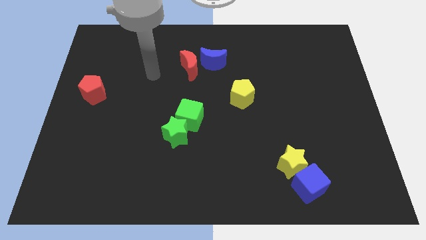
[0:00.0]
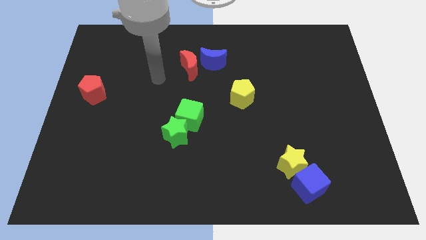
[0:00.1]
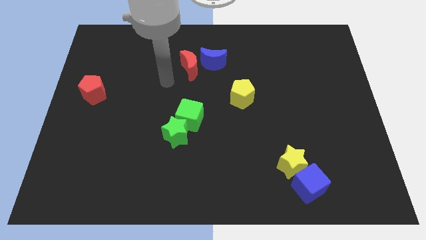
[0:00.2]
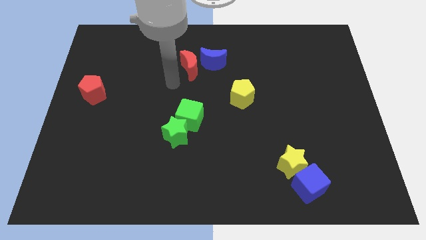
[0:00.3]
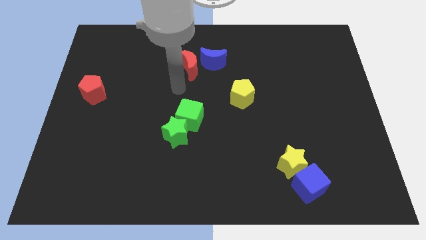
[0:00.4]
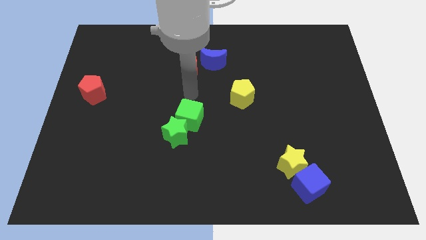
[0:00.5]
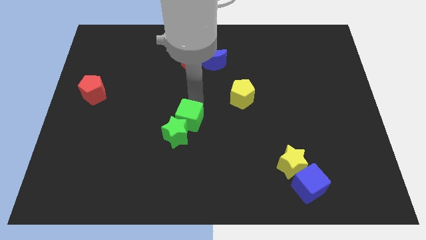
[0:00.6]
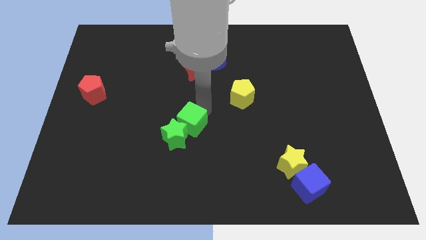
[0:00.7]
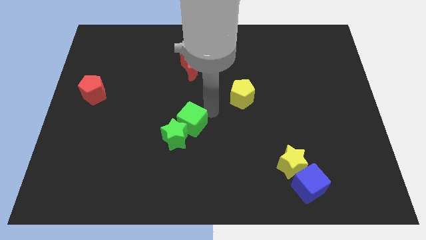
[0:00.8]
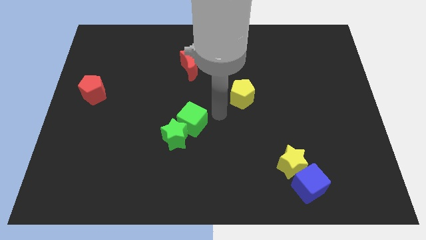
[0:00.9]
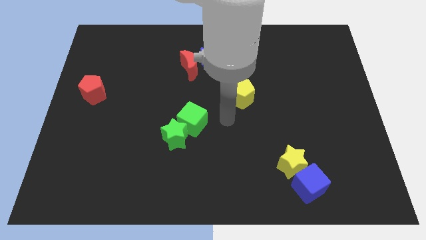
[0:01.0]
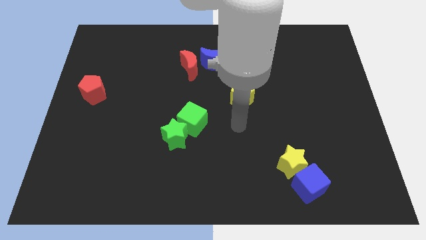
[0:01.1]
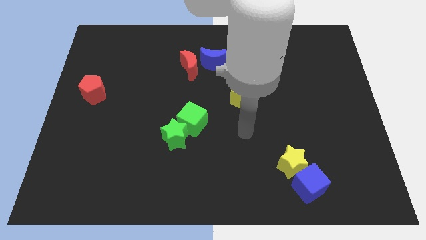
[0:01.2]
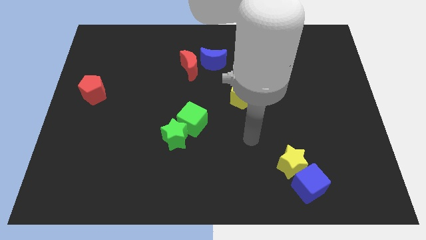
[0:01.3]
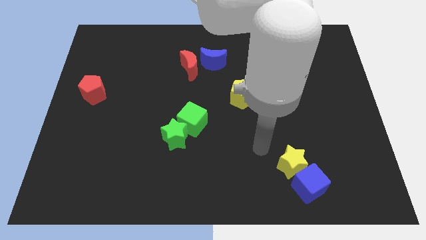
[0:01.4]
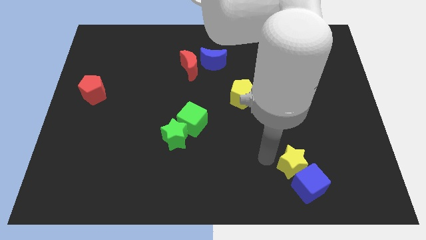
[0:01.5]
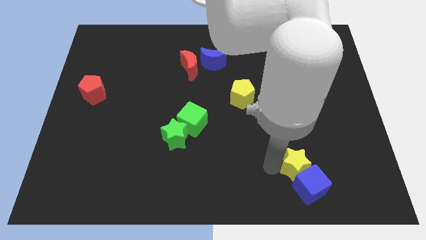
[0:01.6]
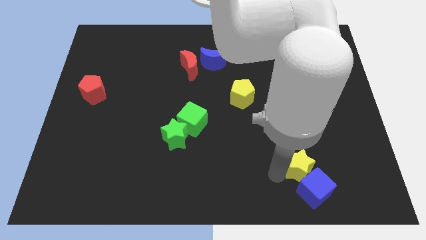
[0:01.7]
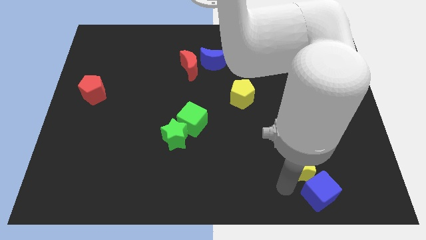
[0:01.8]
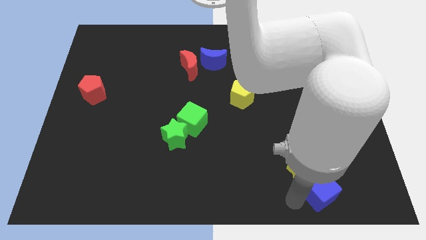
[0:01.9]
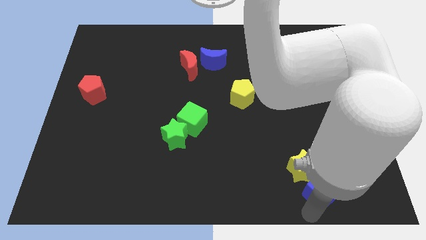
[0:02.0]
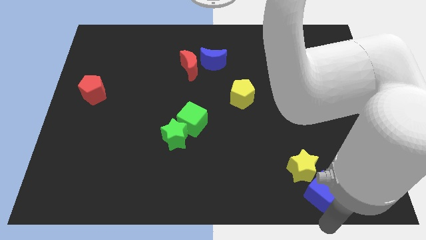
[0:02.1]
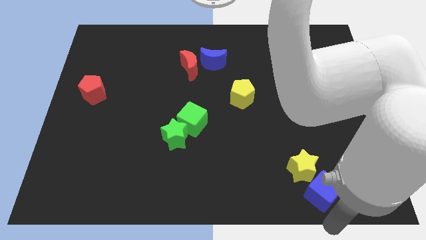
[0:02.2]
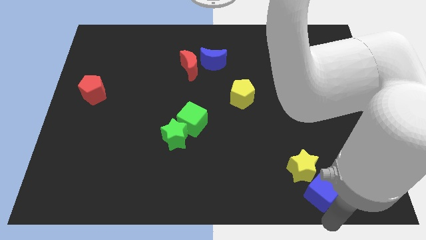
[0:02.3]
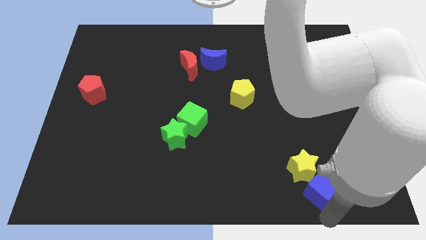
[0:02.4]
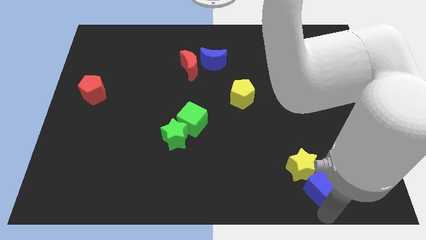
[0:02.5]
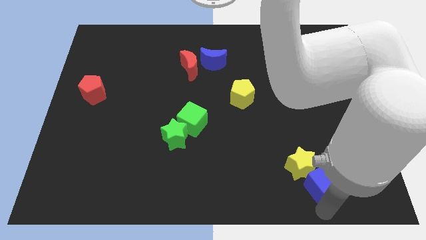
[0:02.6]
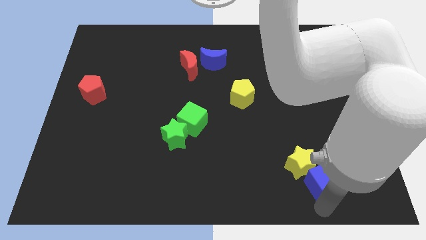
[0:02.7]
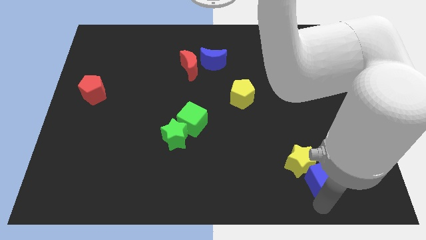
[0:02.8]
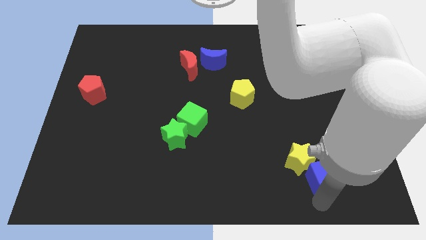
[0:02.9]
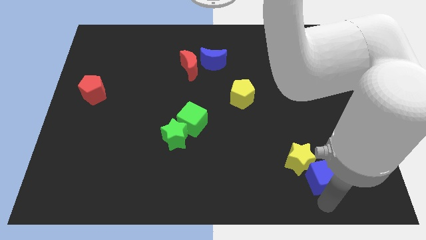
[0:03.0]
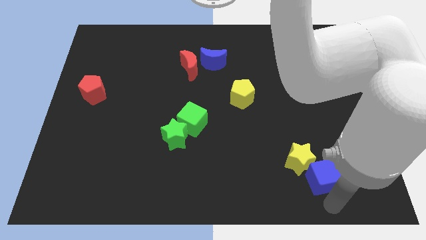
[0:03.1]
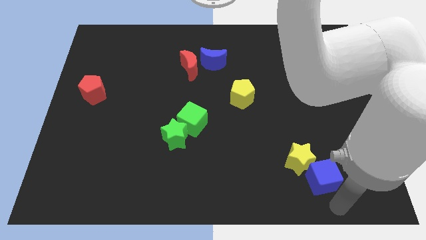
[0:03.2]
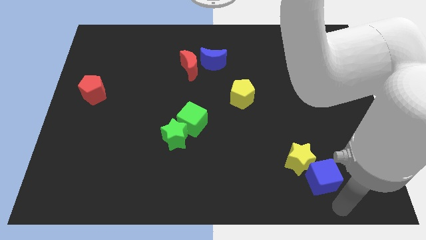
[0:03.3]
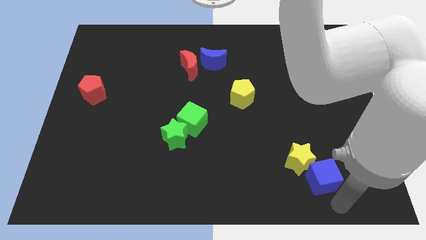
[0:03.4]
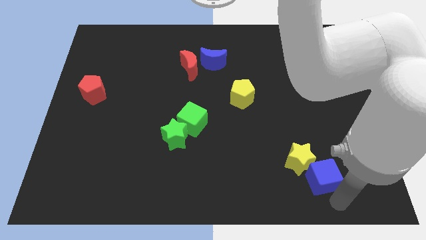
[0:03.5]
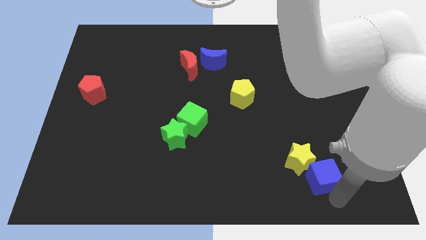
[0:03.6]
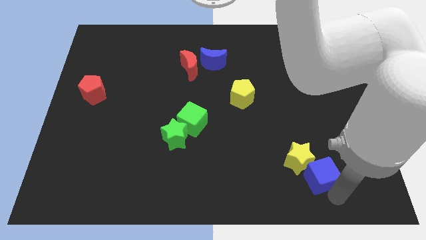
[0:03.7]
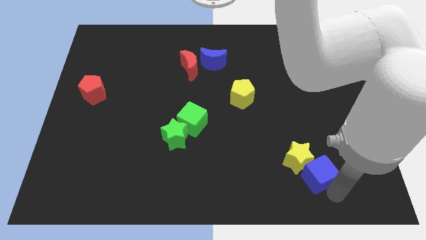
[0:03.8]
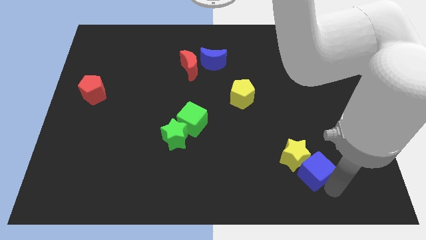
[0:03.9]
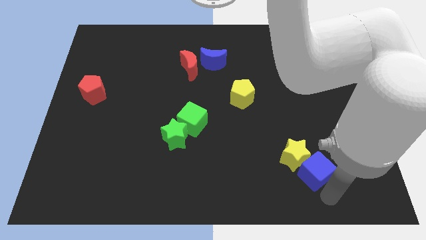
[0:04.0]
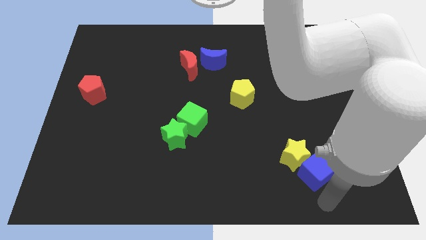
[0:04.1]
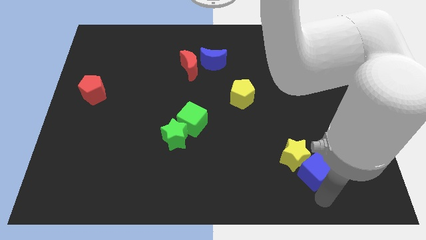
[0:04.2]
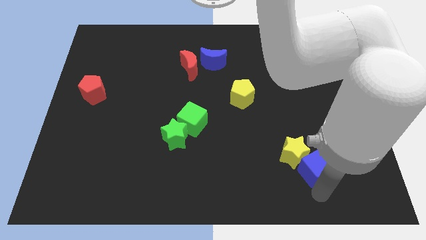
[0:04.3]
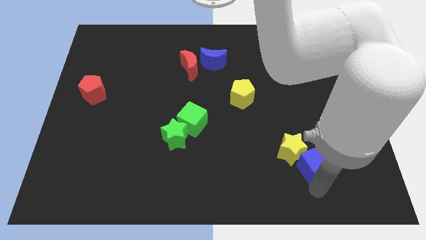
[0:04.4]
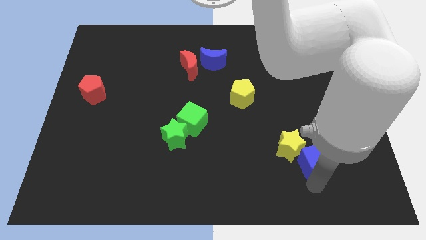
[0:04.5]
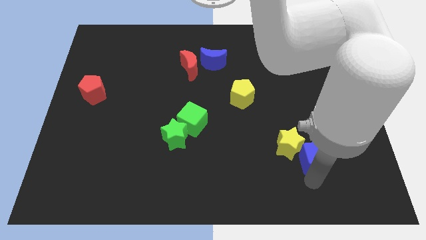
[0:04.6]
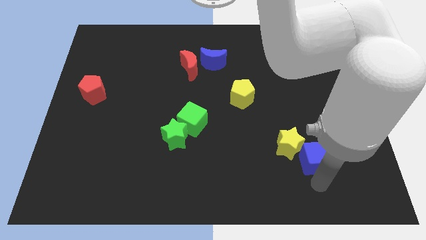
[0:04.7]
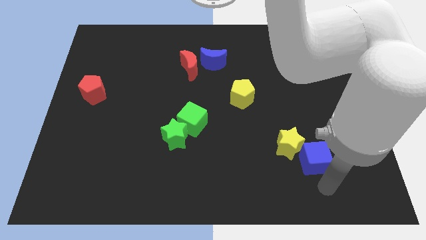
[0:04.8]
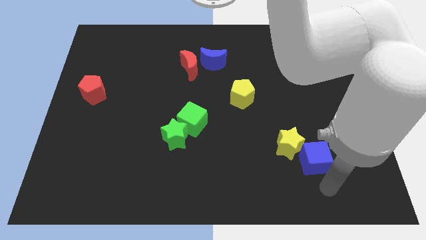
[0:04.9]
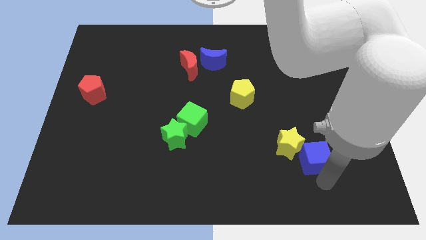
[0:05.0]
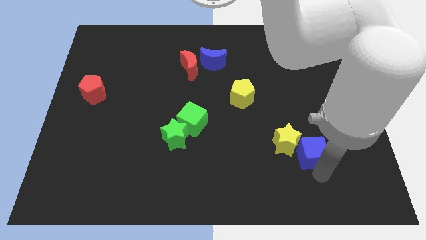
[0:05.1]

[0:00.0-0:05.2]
slightly slide the blue cube up

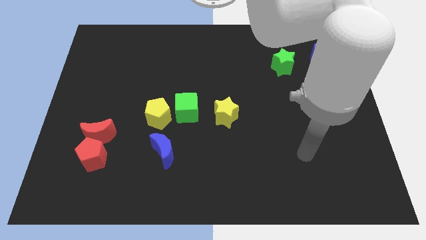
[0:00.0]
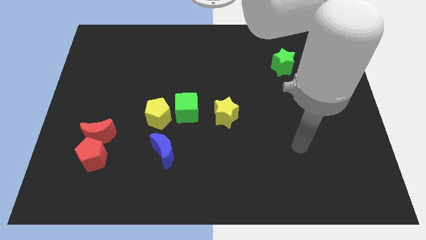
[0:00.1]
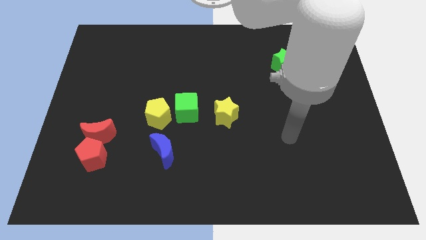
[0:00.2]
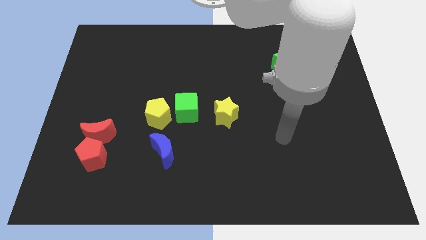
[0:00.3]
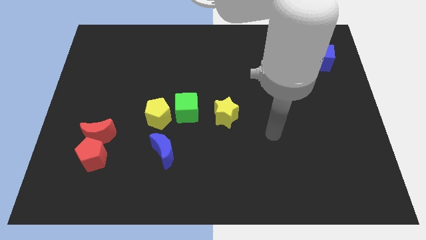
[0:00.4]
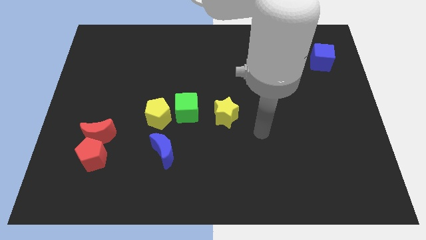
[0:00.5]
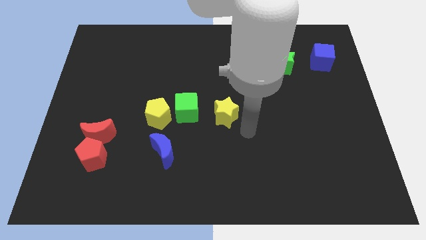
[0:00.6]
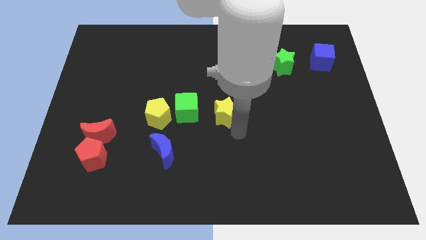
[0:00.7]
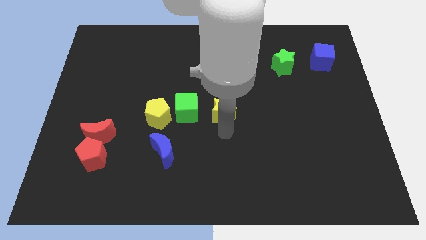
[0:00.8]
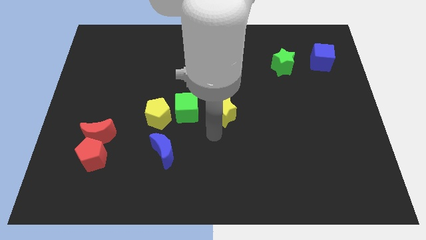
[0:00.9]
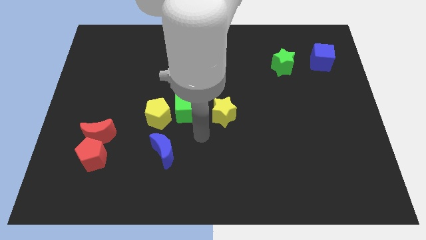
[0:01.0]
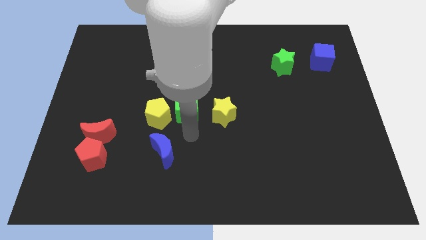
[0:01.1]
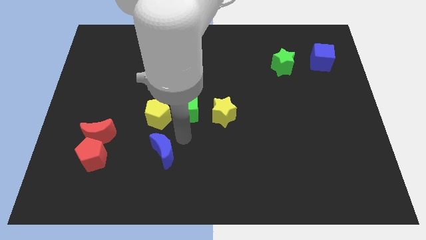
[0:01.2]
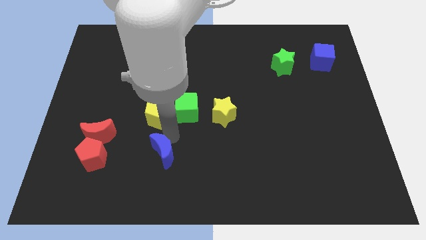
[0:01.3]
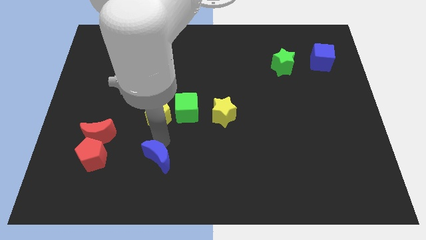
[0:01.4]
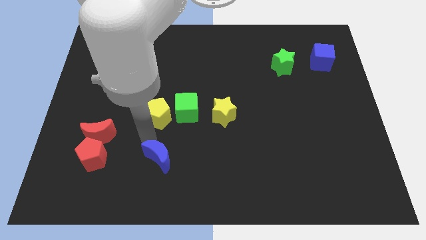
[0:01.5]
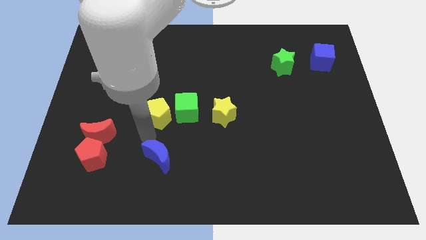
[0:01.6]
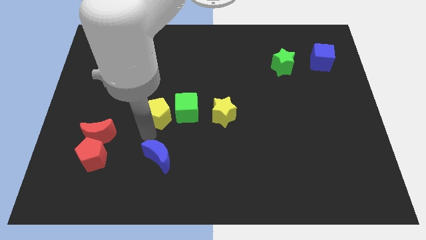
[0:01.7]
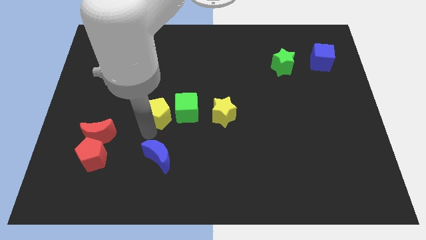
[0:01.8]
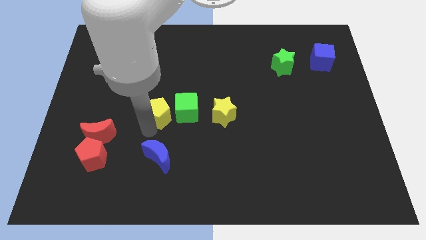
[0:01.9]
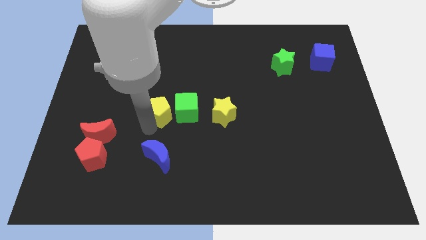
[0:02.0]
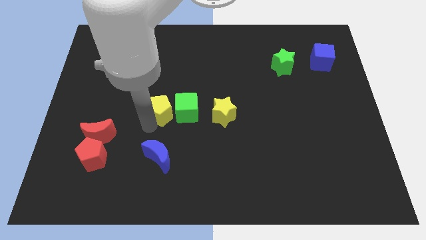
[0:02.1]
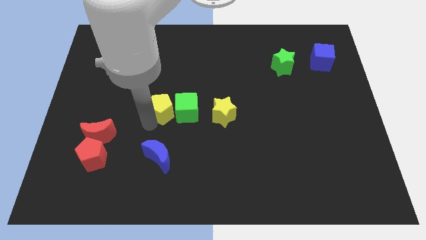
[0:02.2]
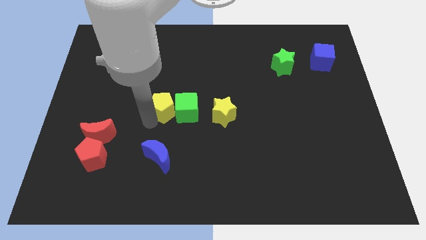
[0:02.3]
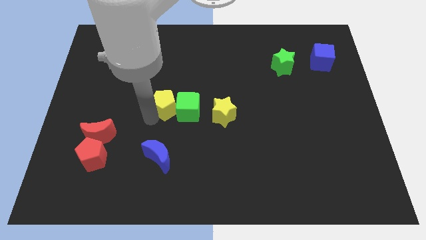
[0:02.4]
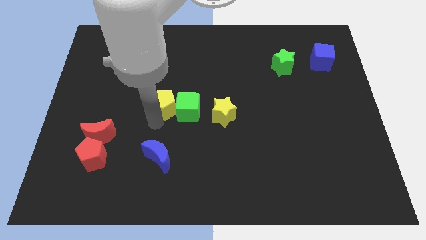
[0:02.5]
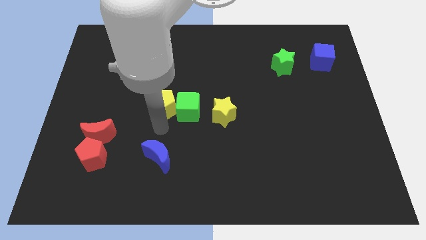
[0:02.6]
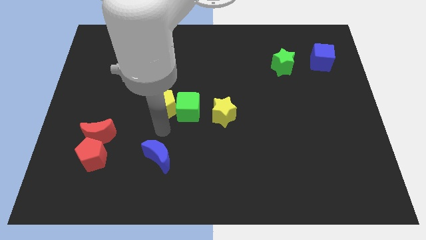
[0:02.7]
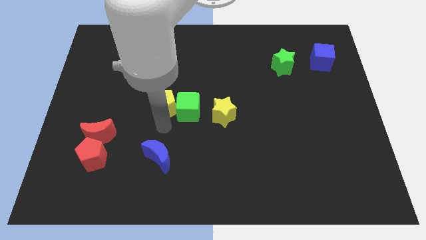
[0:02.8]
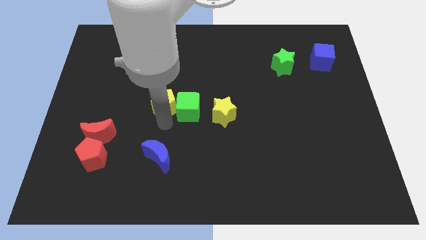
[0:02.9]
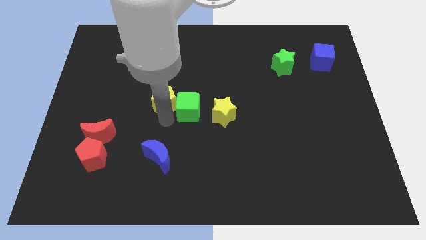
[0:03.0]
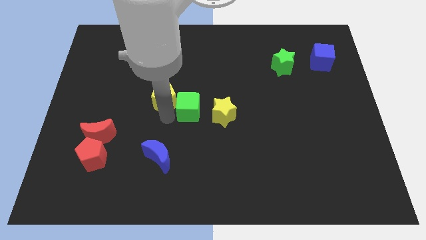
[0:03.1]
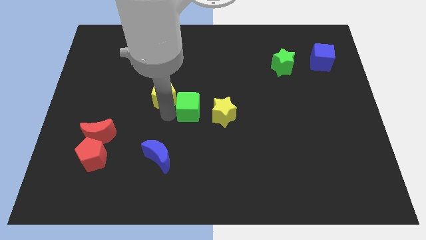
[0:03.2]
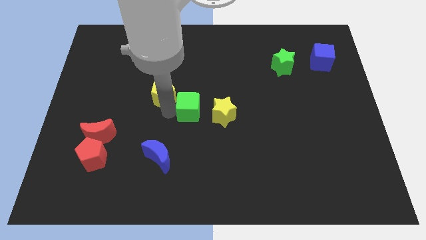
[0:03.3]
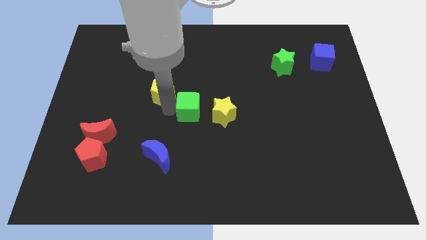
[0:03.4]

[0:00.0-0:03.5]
slightly slide the yellow pentagon upwards
